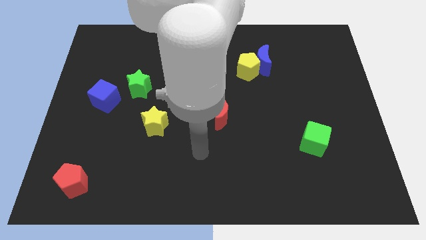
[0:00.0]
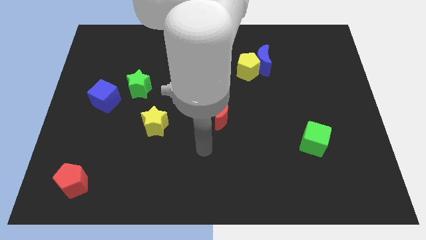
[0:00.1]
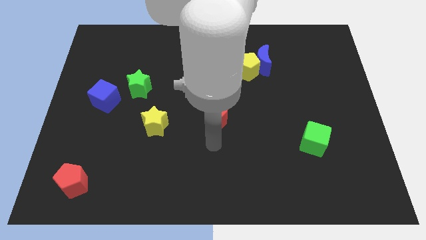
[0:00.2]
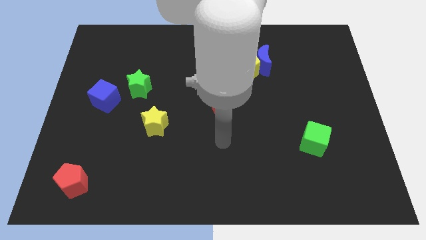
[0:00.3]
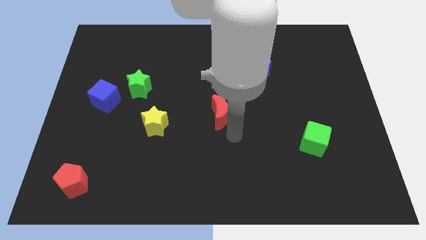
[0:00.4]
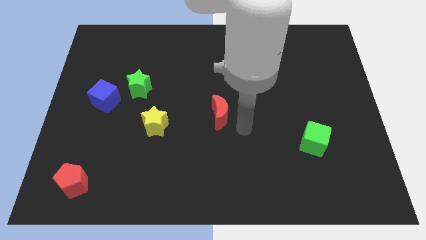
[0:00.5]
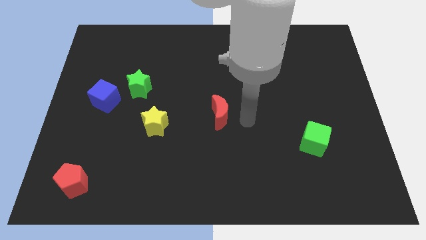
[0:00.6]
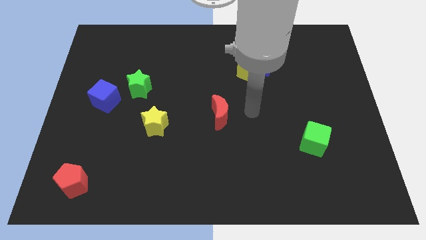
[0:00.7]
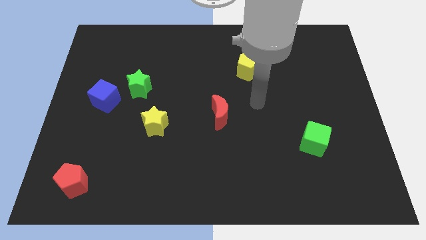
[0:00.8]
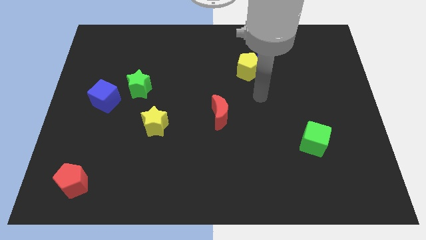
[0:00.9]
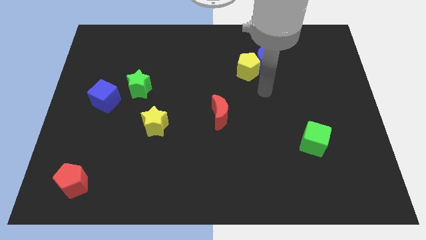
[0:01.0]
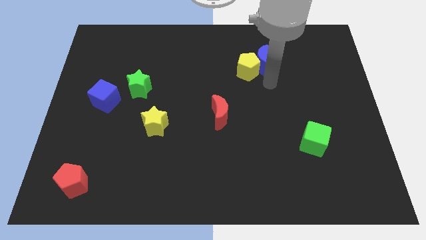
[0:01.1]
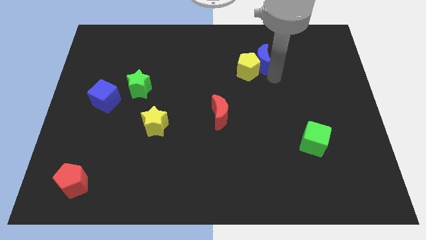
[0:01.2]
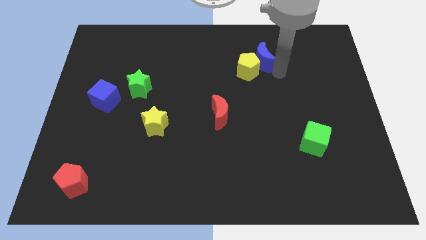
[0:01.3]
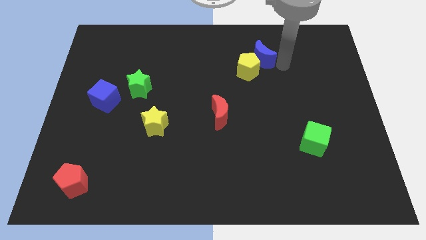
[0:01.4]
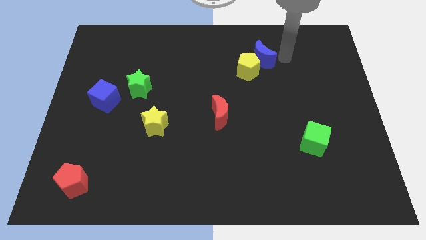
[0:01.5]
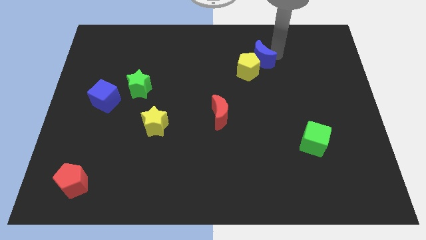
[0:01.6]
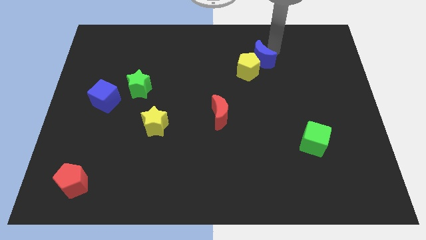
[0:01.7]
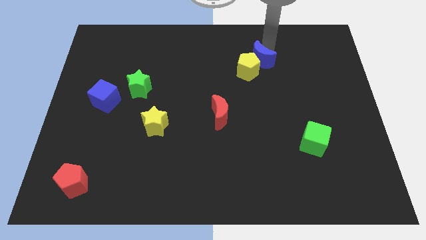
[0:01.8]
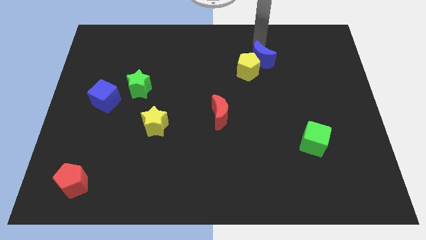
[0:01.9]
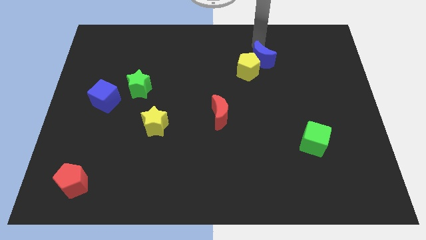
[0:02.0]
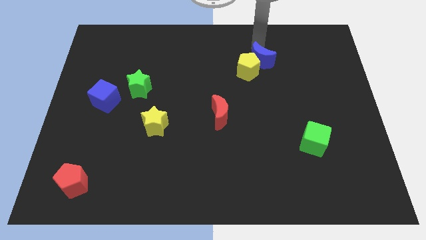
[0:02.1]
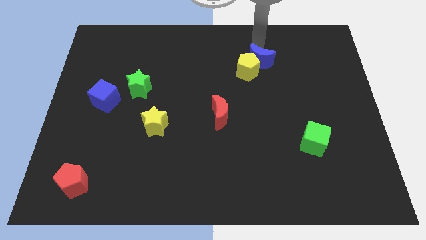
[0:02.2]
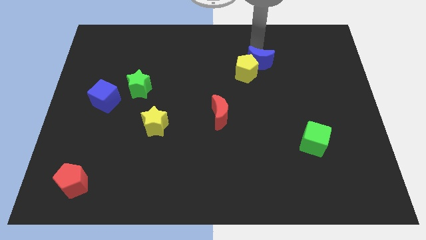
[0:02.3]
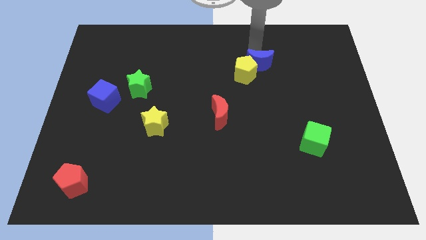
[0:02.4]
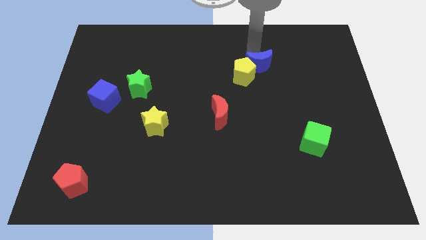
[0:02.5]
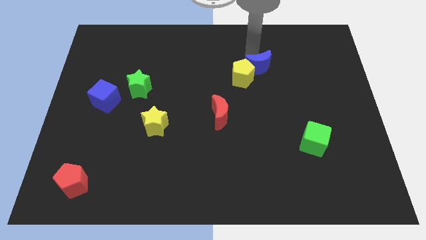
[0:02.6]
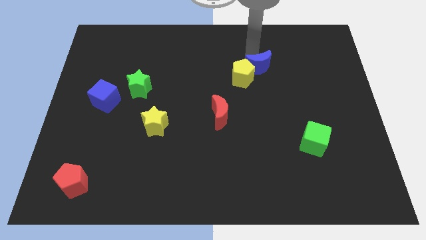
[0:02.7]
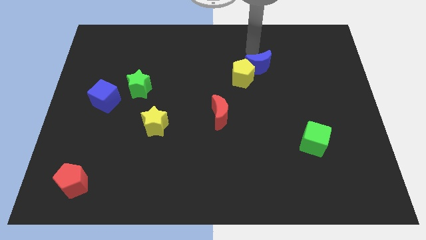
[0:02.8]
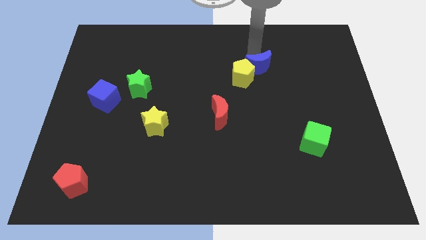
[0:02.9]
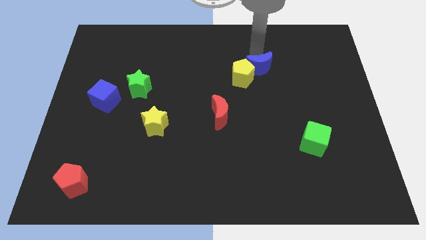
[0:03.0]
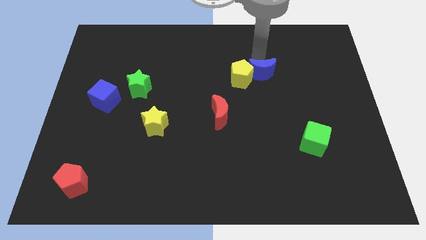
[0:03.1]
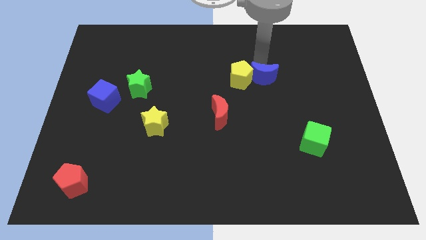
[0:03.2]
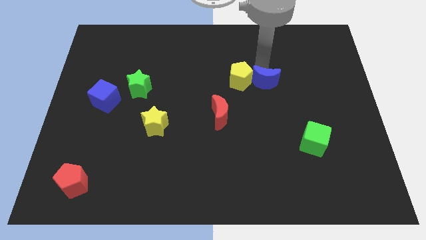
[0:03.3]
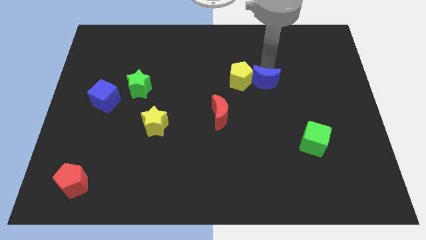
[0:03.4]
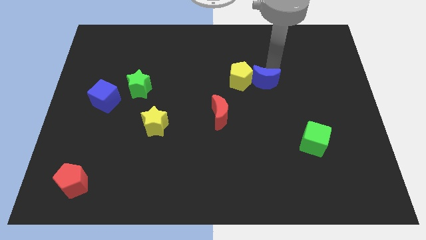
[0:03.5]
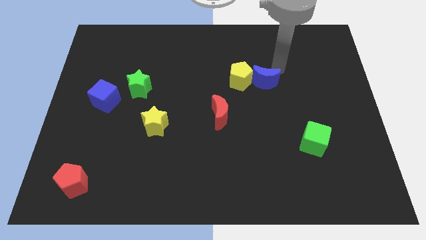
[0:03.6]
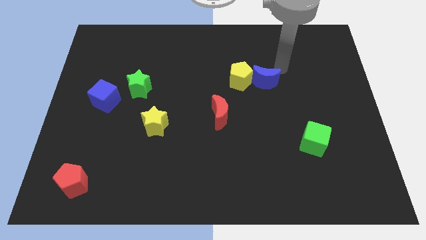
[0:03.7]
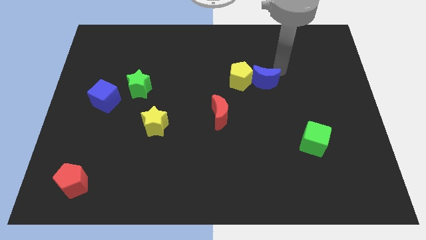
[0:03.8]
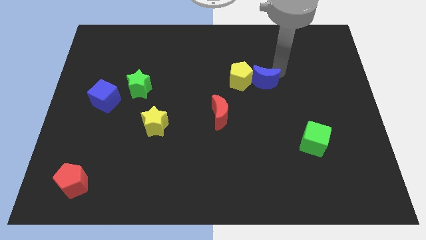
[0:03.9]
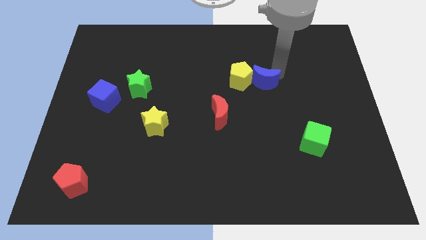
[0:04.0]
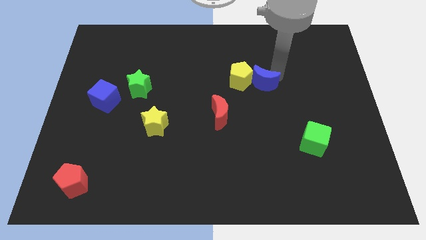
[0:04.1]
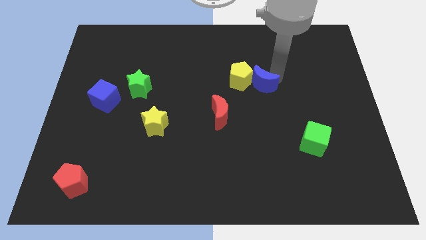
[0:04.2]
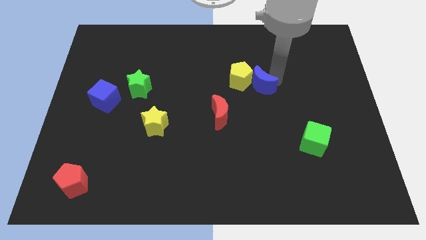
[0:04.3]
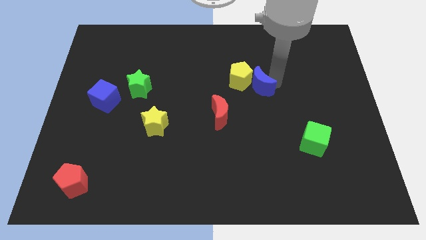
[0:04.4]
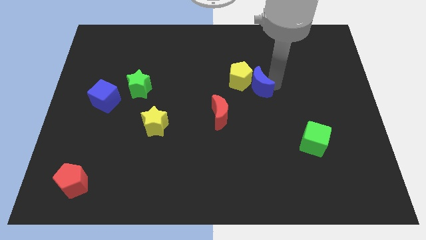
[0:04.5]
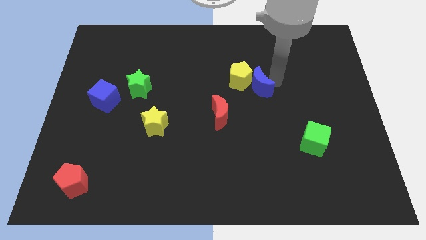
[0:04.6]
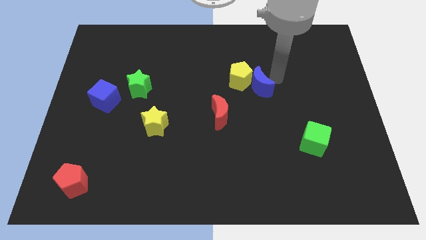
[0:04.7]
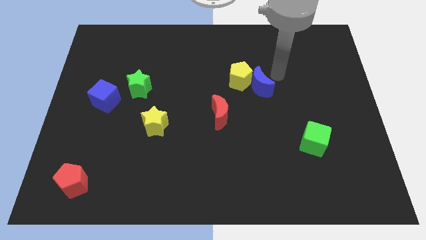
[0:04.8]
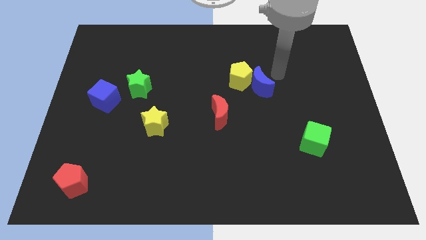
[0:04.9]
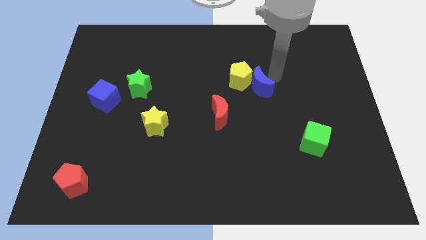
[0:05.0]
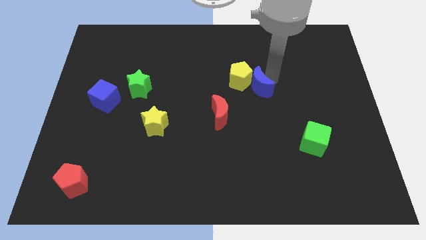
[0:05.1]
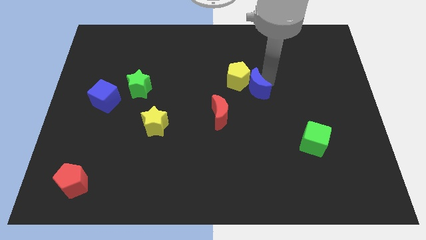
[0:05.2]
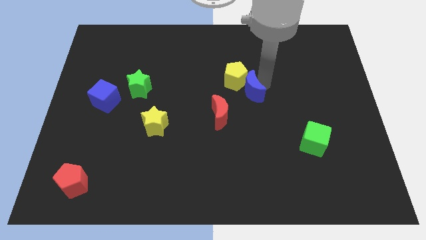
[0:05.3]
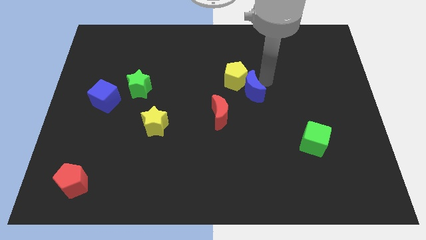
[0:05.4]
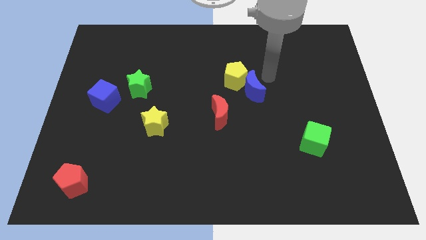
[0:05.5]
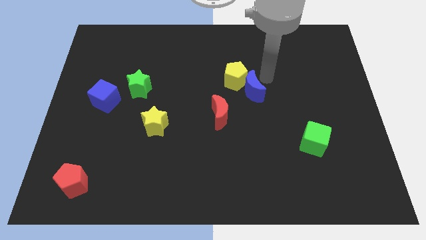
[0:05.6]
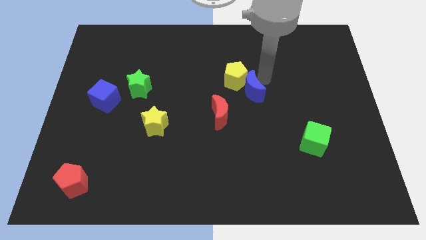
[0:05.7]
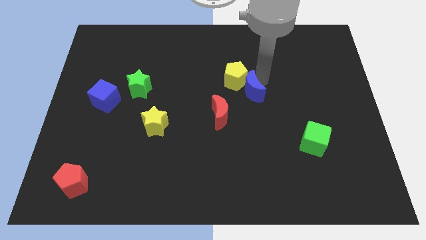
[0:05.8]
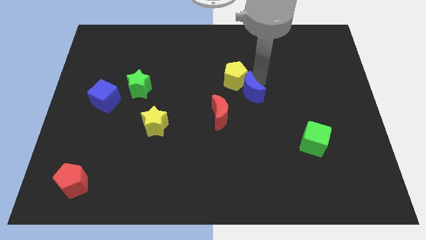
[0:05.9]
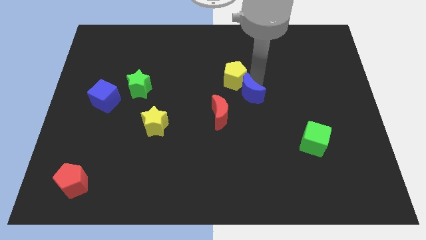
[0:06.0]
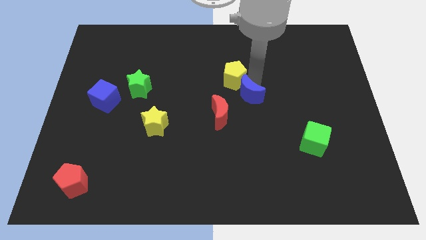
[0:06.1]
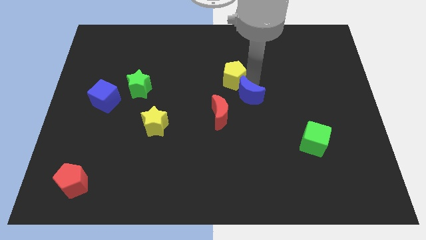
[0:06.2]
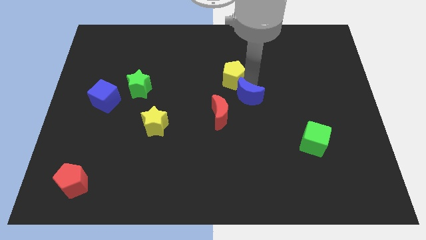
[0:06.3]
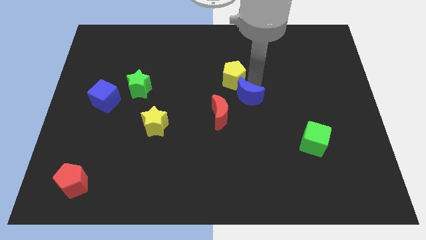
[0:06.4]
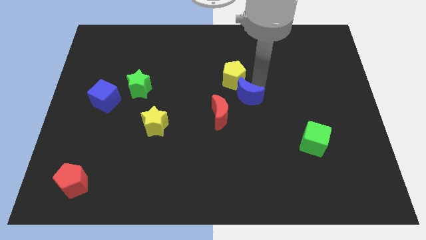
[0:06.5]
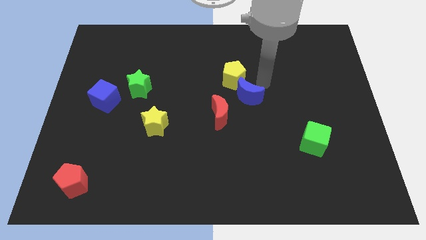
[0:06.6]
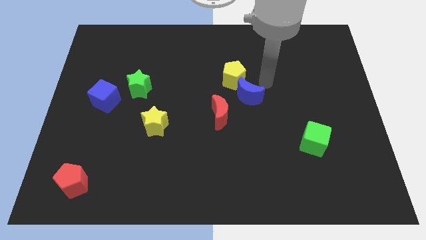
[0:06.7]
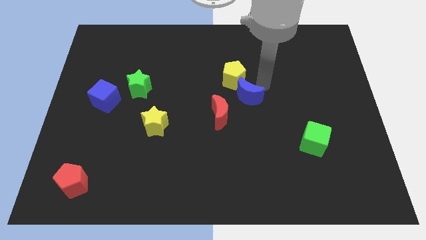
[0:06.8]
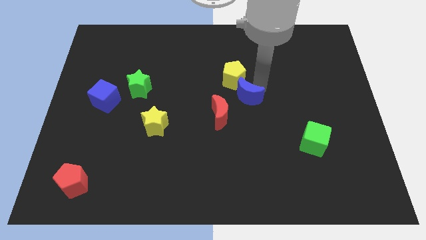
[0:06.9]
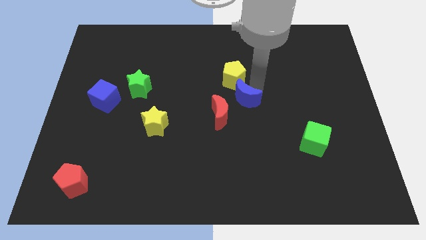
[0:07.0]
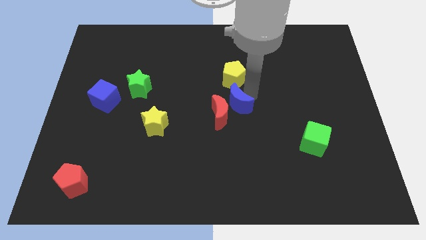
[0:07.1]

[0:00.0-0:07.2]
slide the blue moon next to the red moon

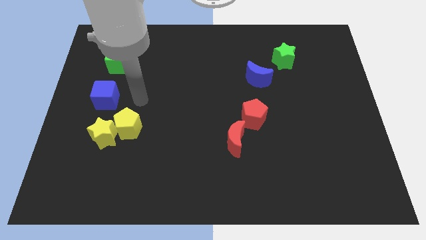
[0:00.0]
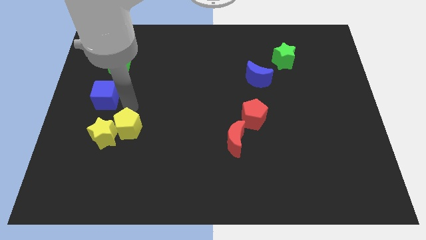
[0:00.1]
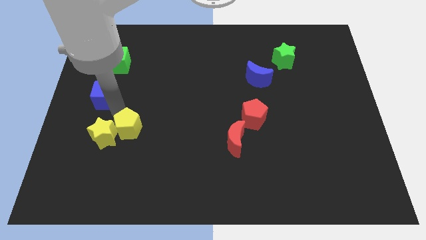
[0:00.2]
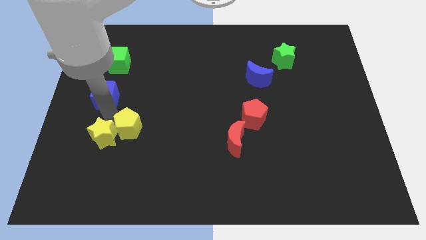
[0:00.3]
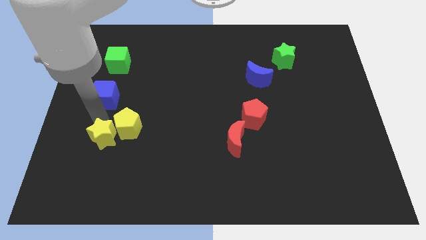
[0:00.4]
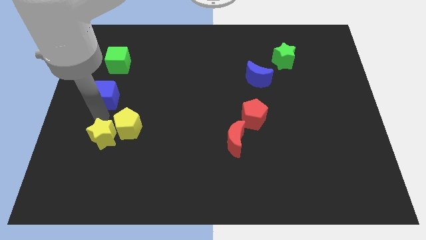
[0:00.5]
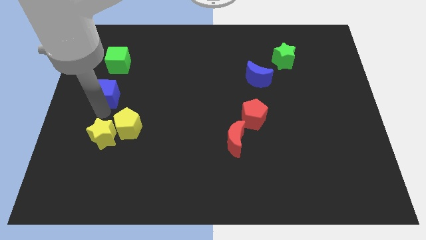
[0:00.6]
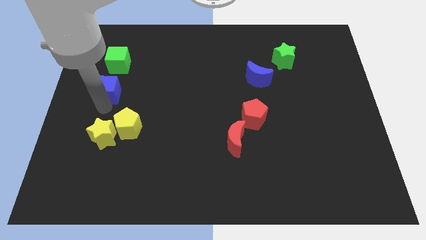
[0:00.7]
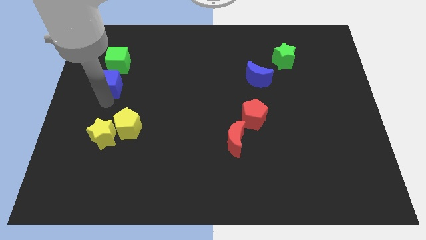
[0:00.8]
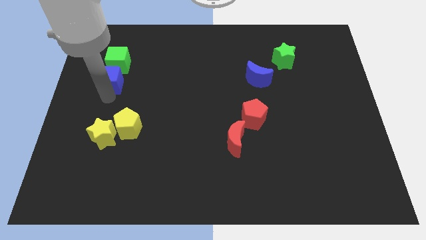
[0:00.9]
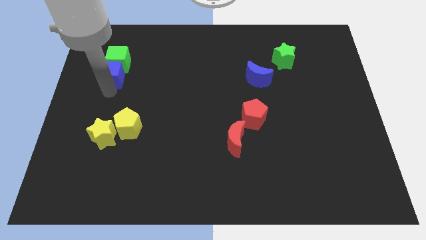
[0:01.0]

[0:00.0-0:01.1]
put the blue cube next to the green cube
